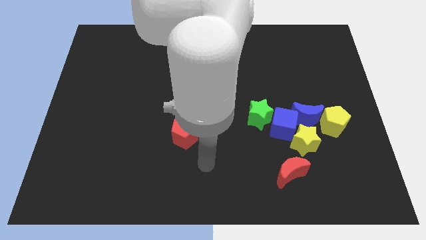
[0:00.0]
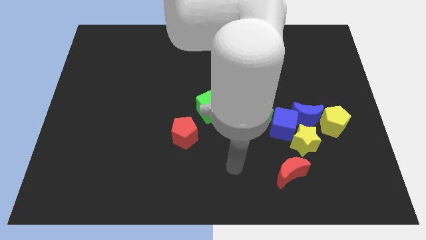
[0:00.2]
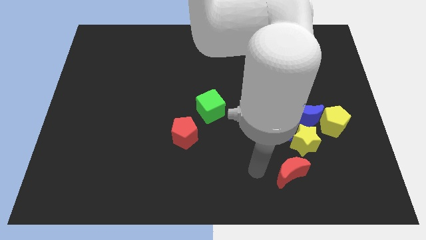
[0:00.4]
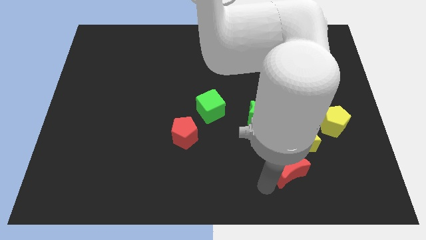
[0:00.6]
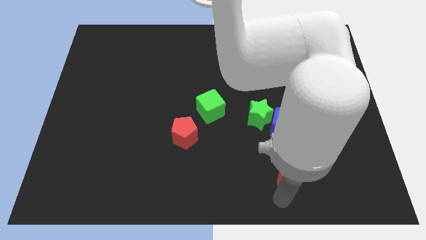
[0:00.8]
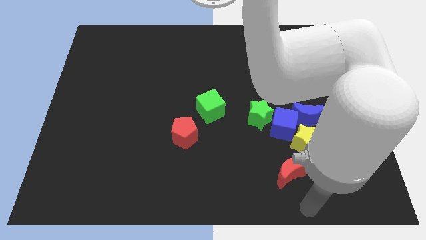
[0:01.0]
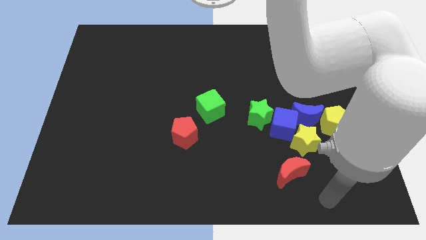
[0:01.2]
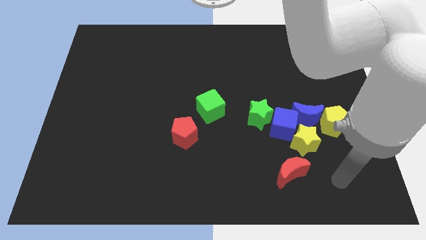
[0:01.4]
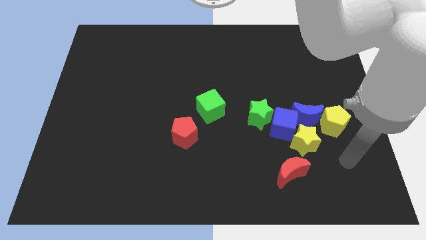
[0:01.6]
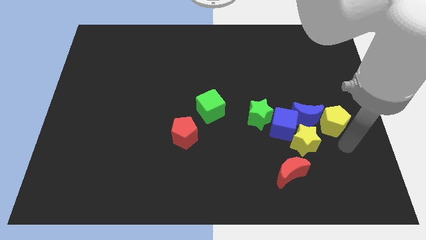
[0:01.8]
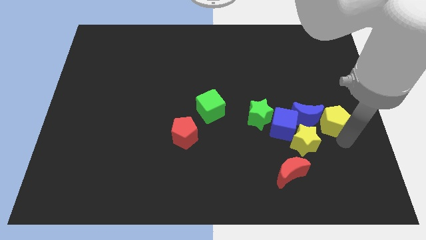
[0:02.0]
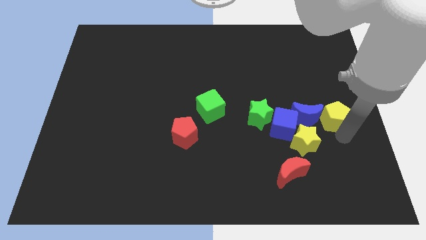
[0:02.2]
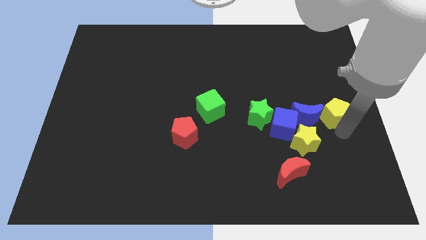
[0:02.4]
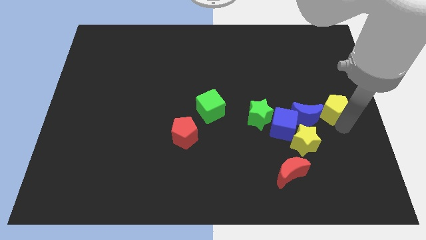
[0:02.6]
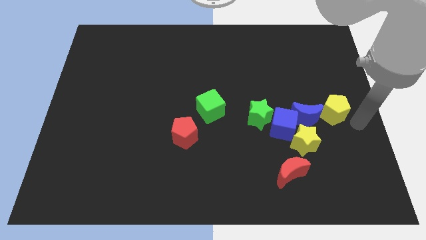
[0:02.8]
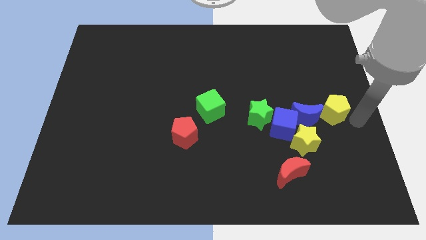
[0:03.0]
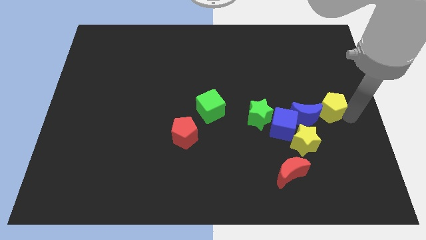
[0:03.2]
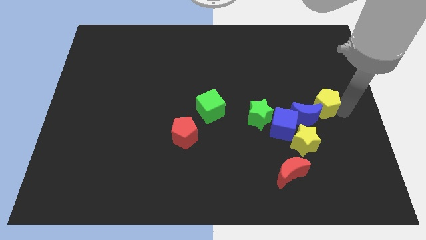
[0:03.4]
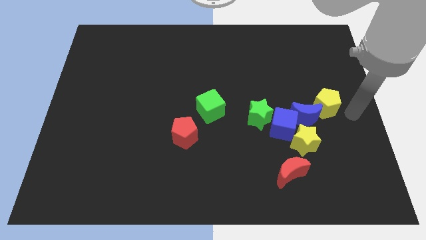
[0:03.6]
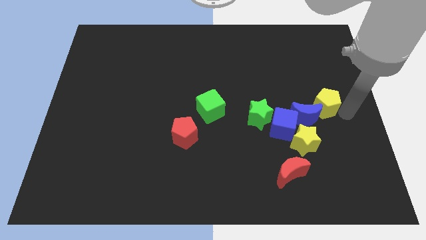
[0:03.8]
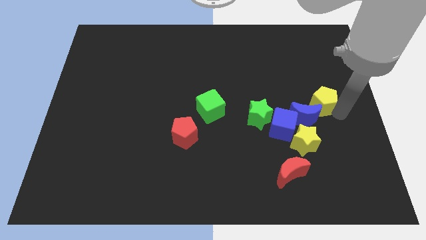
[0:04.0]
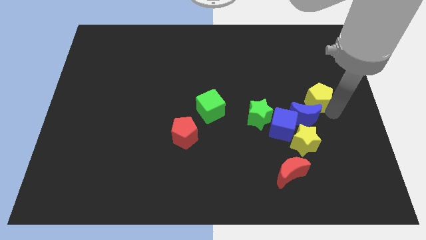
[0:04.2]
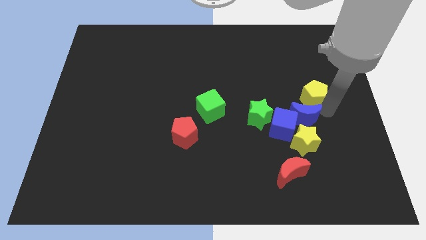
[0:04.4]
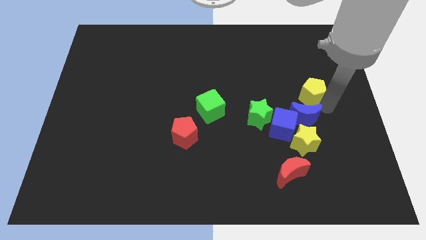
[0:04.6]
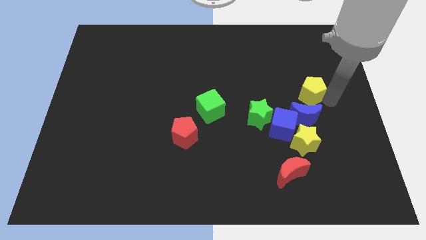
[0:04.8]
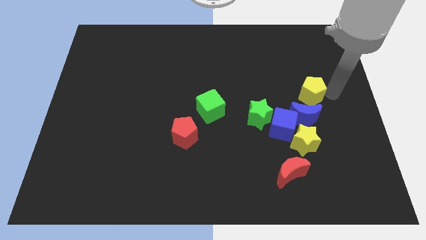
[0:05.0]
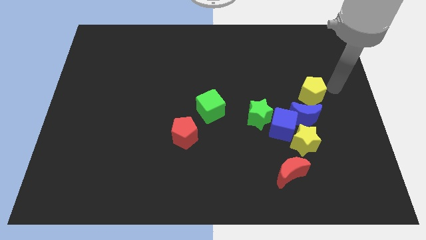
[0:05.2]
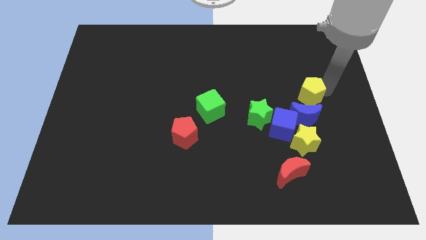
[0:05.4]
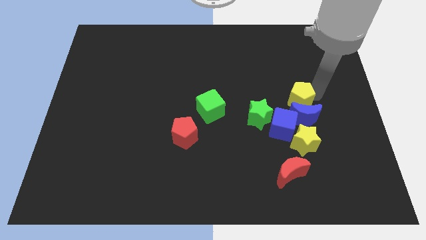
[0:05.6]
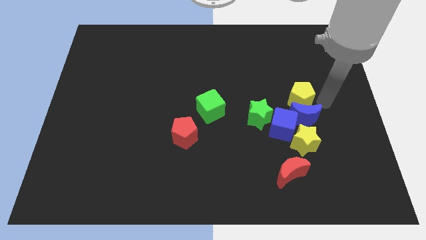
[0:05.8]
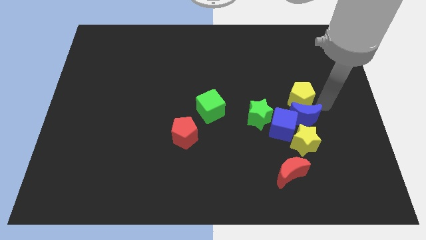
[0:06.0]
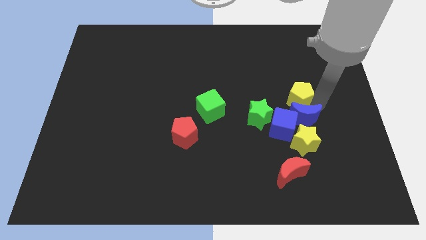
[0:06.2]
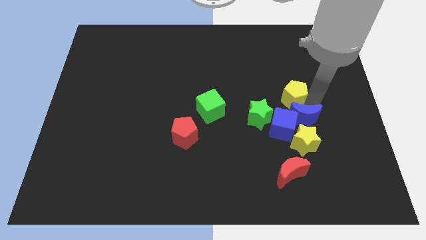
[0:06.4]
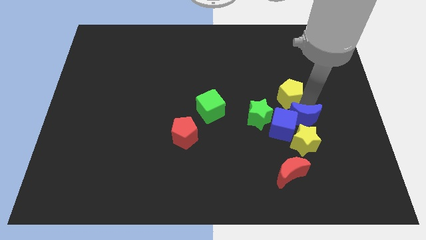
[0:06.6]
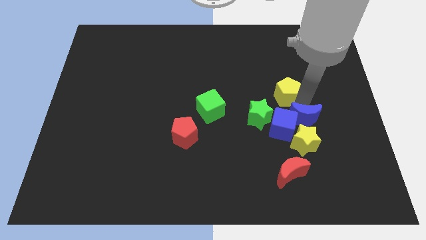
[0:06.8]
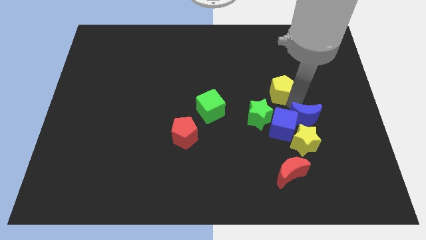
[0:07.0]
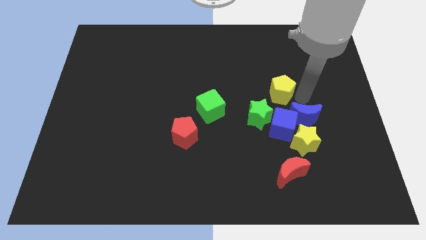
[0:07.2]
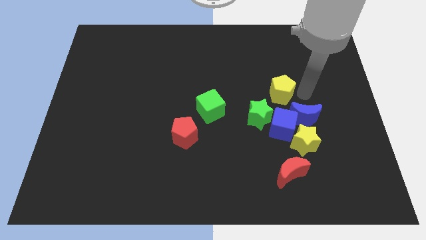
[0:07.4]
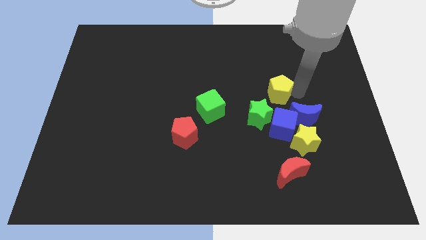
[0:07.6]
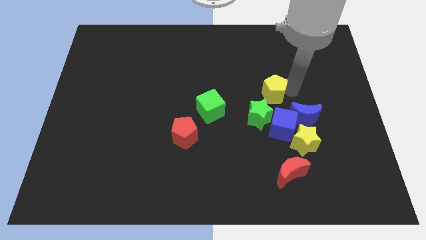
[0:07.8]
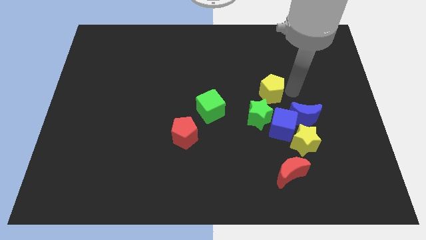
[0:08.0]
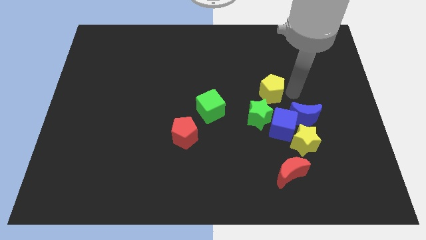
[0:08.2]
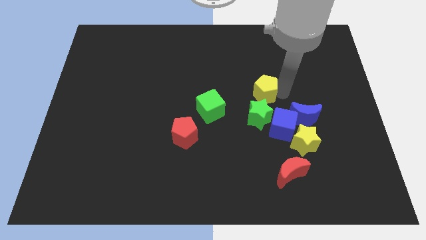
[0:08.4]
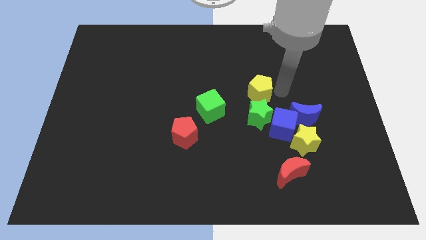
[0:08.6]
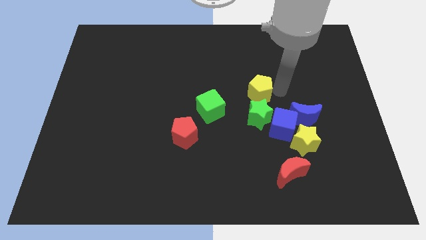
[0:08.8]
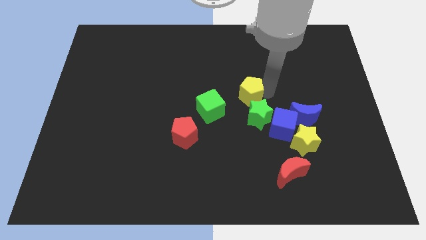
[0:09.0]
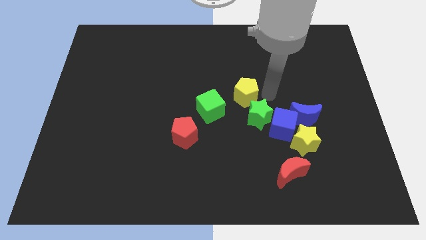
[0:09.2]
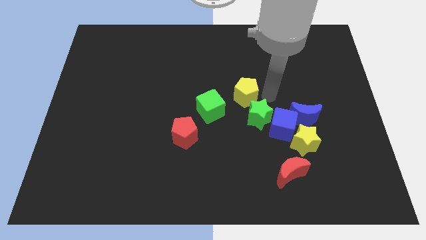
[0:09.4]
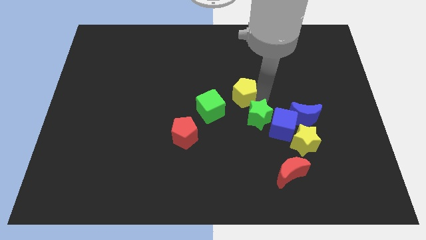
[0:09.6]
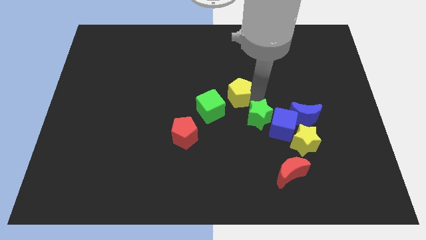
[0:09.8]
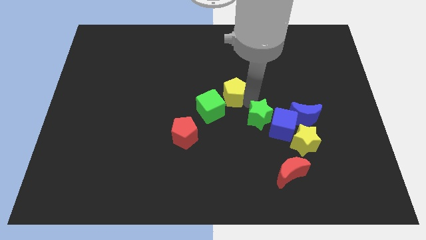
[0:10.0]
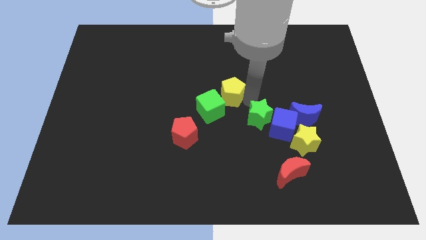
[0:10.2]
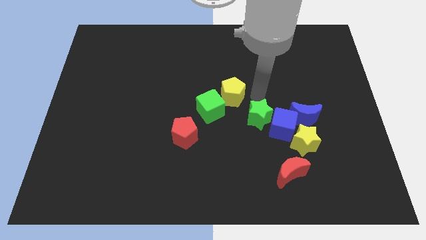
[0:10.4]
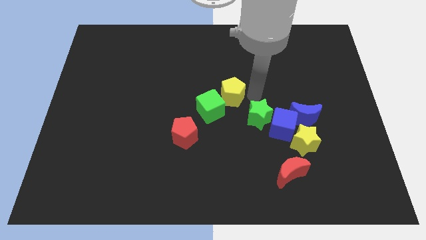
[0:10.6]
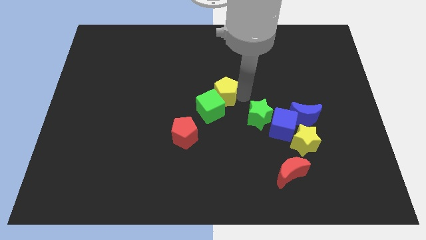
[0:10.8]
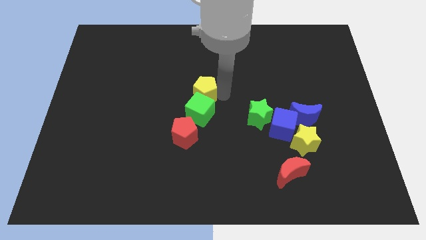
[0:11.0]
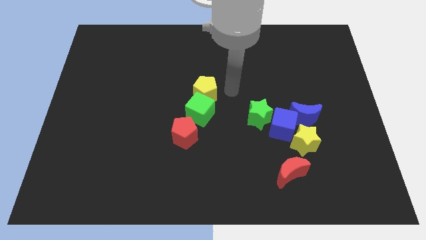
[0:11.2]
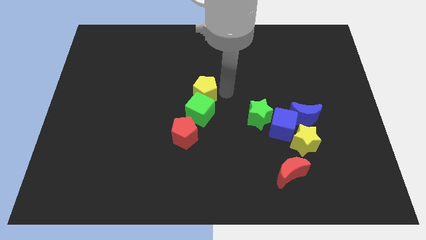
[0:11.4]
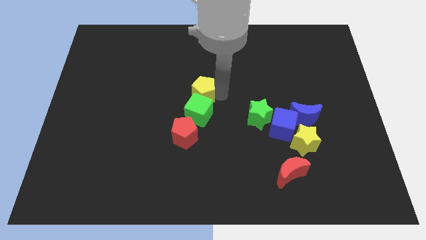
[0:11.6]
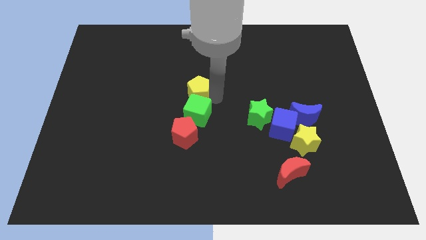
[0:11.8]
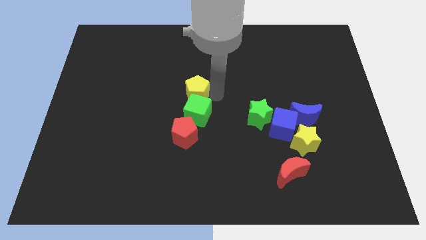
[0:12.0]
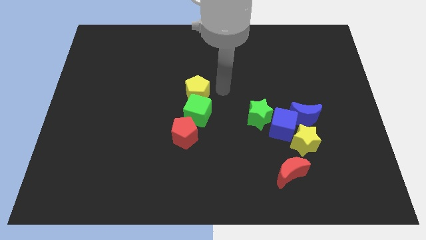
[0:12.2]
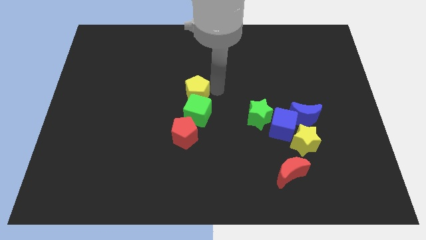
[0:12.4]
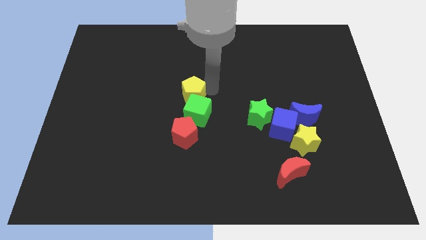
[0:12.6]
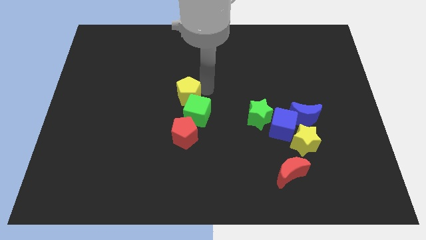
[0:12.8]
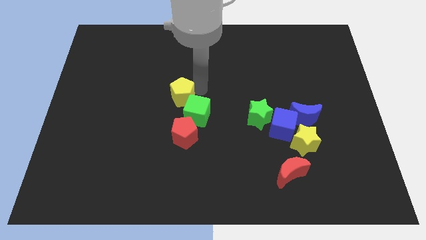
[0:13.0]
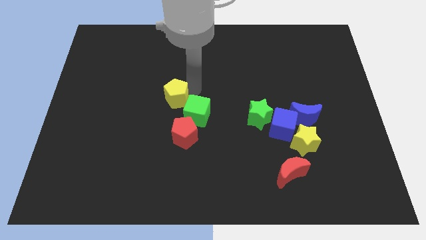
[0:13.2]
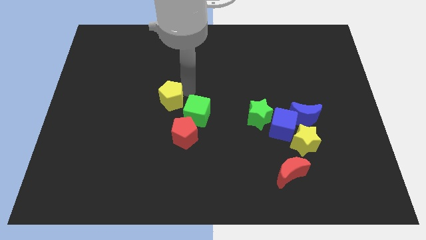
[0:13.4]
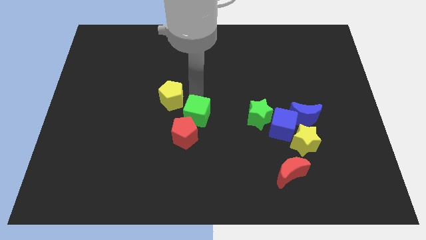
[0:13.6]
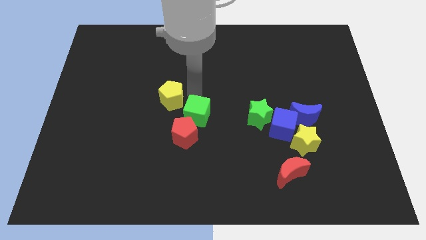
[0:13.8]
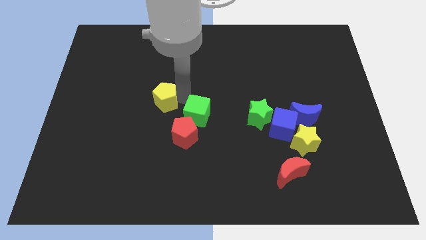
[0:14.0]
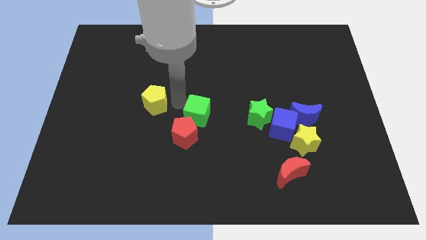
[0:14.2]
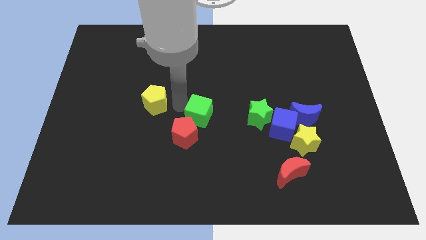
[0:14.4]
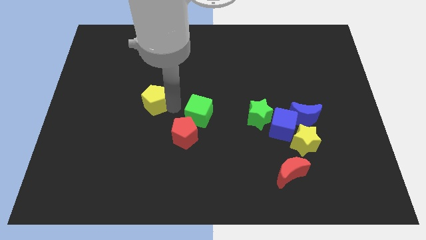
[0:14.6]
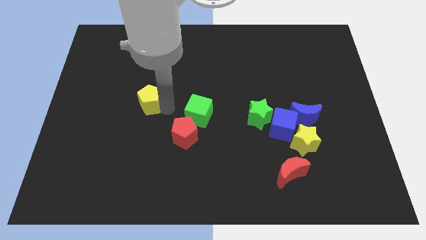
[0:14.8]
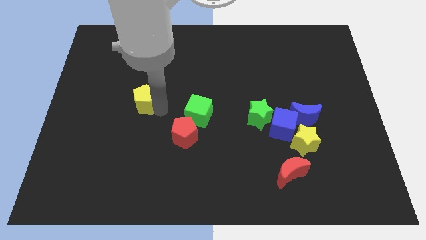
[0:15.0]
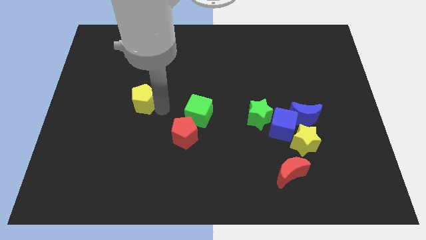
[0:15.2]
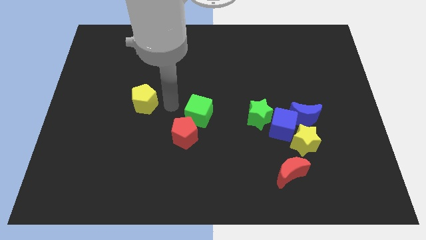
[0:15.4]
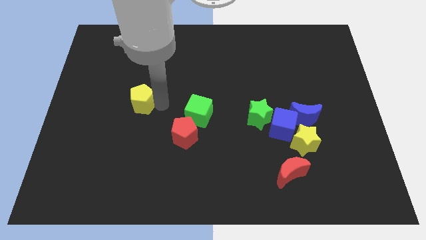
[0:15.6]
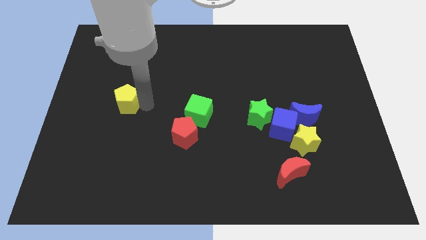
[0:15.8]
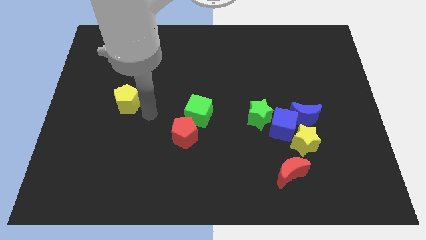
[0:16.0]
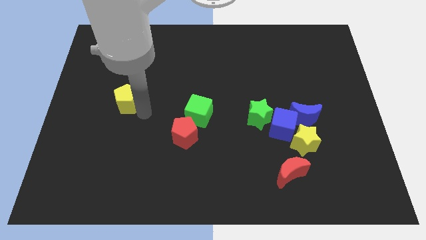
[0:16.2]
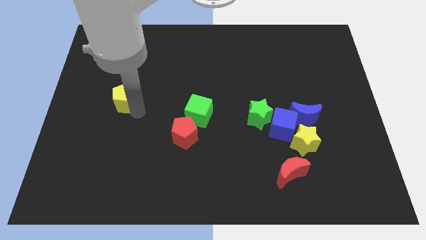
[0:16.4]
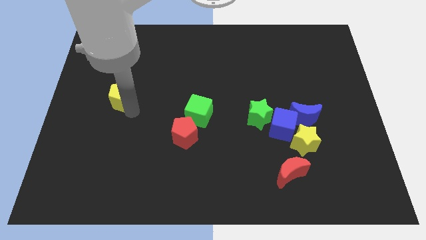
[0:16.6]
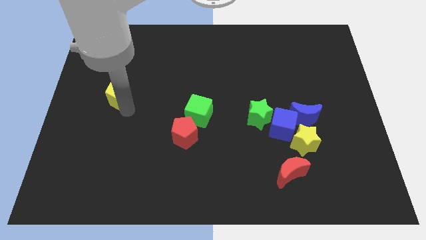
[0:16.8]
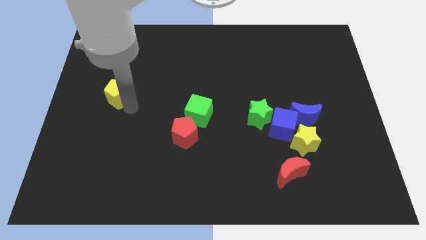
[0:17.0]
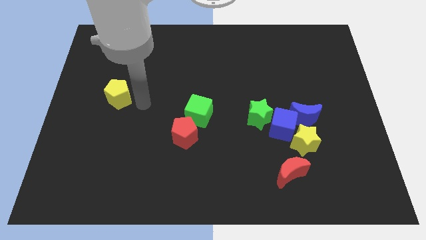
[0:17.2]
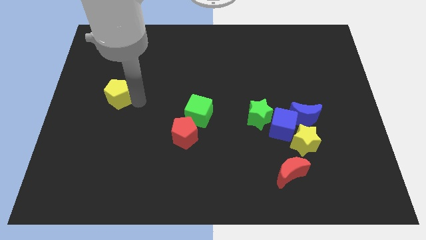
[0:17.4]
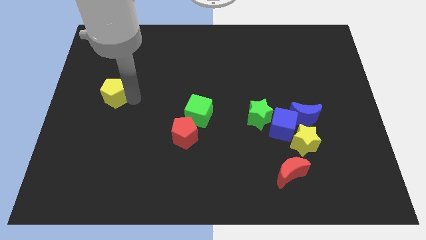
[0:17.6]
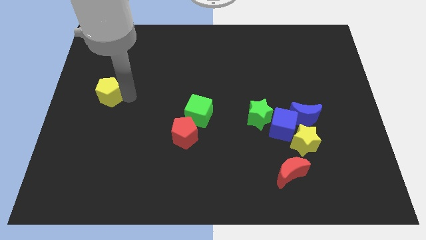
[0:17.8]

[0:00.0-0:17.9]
move the yellow pentagon to the center left
